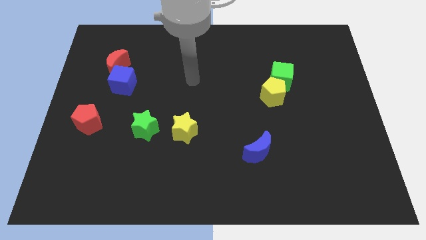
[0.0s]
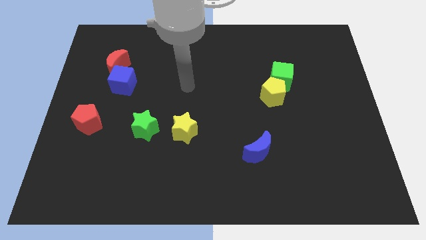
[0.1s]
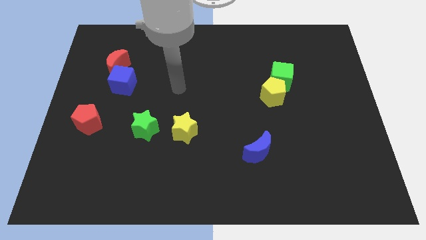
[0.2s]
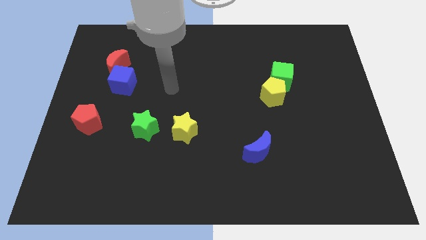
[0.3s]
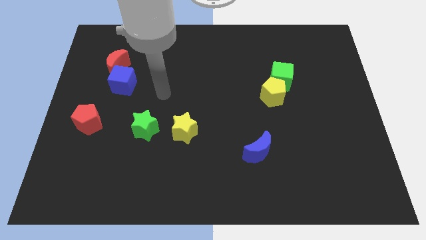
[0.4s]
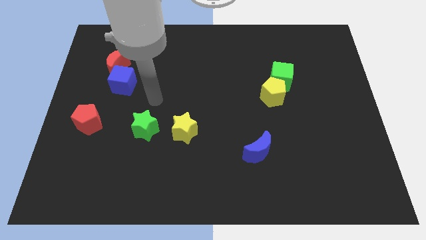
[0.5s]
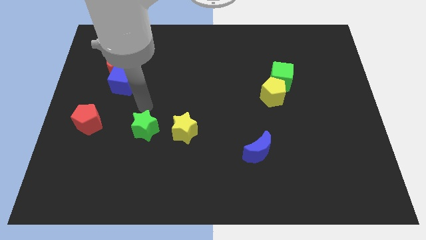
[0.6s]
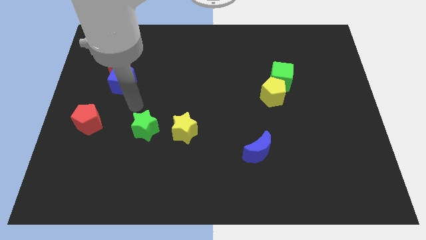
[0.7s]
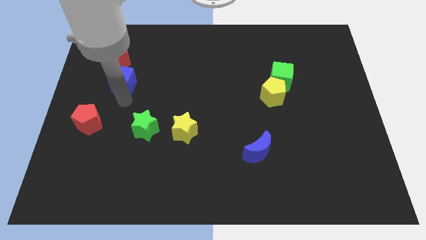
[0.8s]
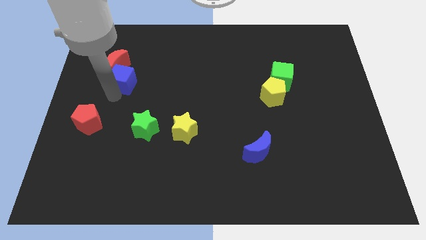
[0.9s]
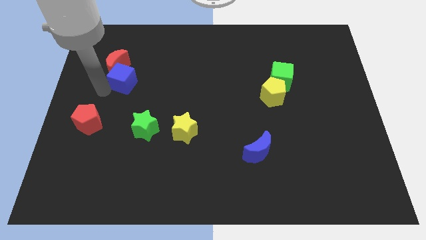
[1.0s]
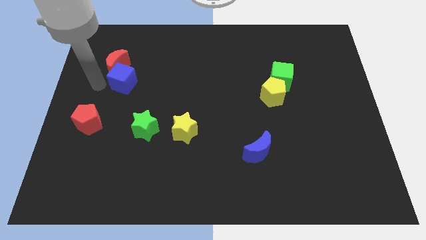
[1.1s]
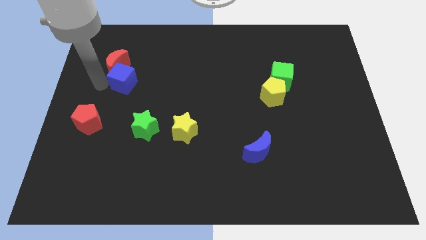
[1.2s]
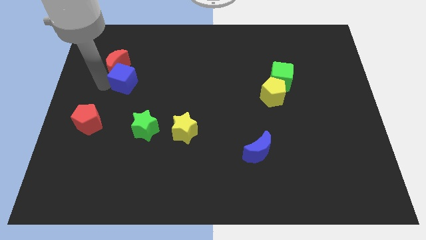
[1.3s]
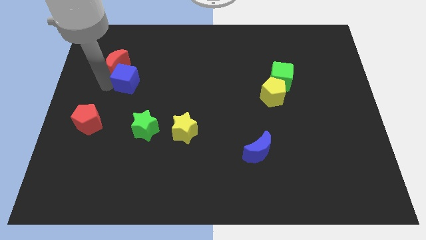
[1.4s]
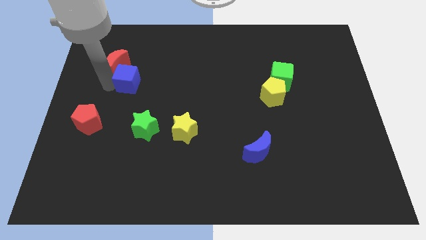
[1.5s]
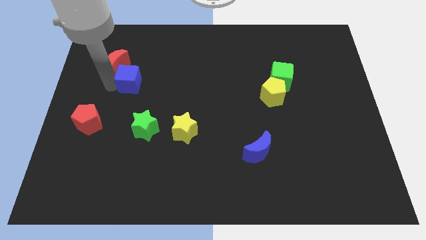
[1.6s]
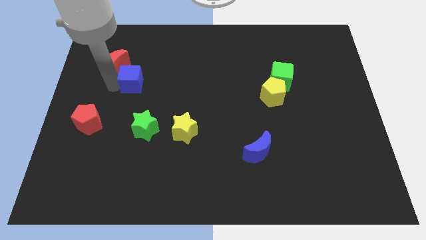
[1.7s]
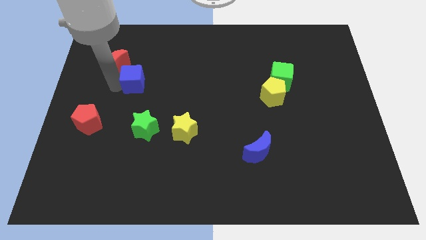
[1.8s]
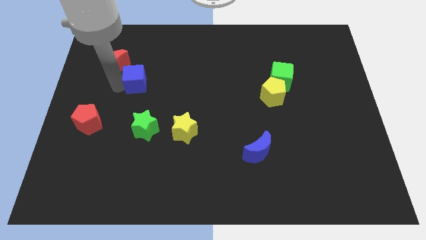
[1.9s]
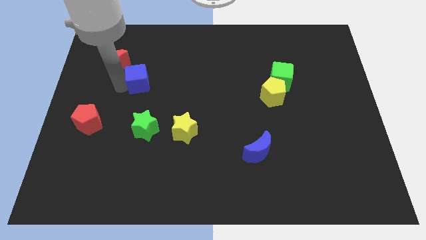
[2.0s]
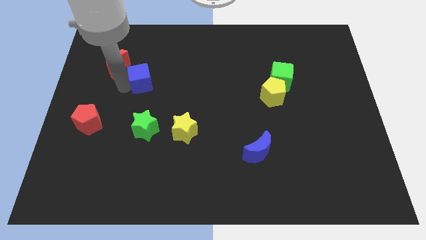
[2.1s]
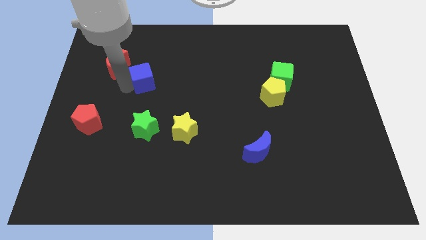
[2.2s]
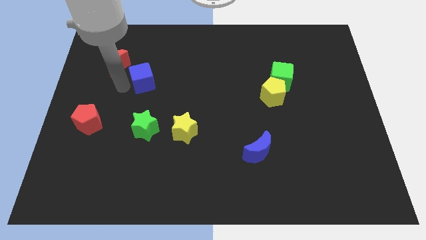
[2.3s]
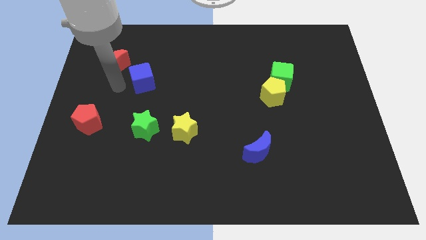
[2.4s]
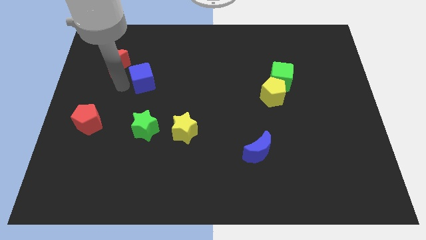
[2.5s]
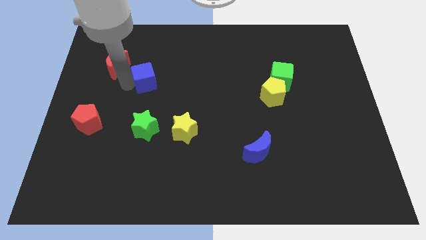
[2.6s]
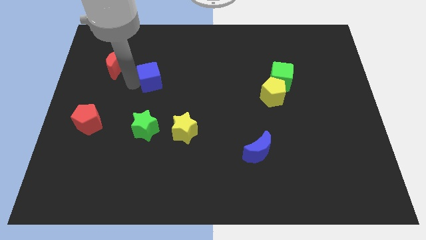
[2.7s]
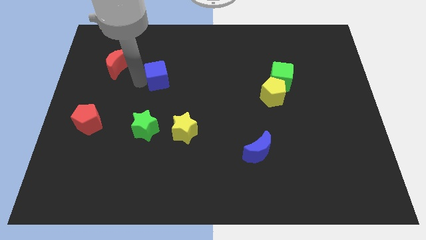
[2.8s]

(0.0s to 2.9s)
slightly slide the blue cube right

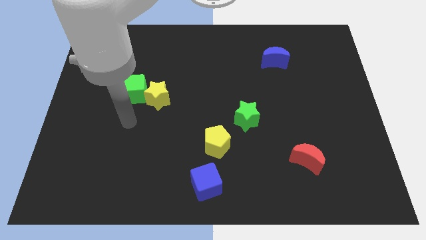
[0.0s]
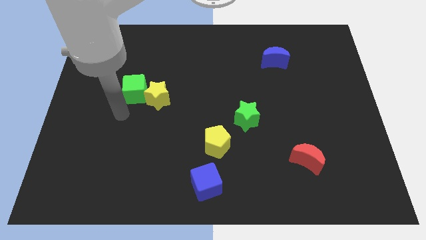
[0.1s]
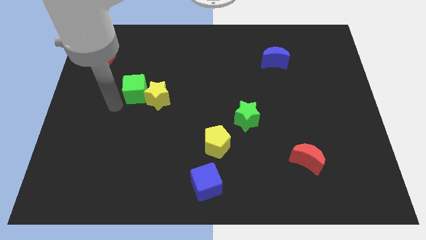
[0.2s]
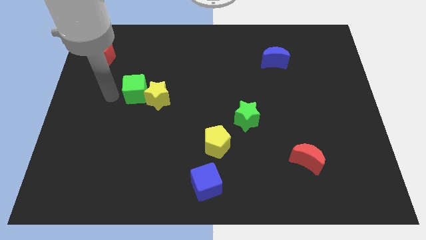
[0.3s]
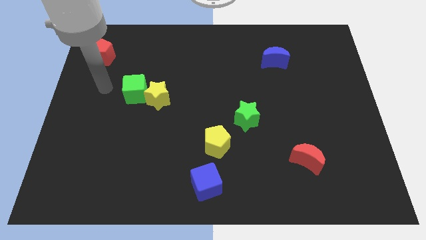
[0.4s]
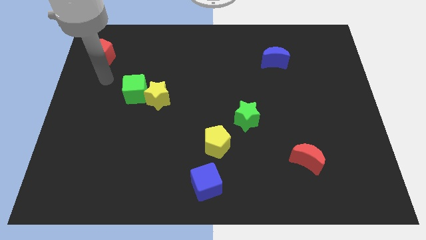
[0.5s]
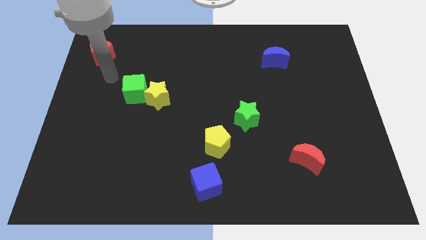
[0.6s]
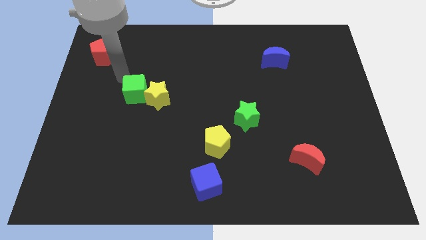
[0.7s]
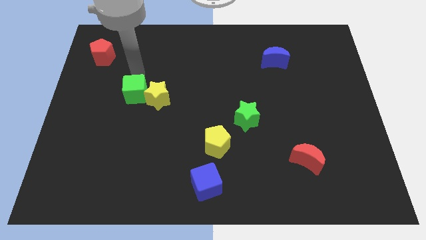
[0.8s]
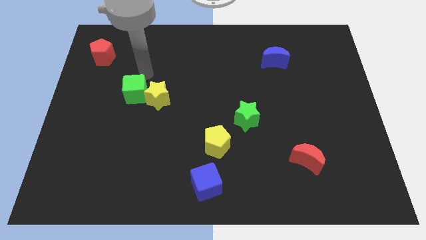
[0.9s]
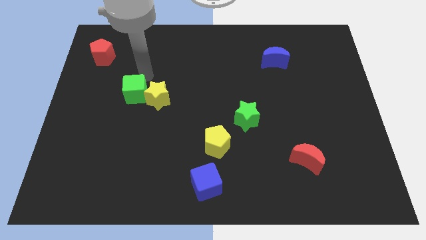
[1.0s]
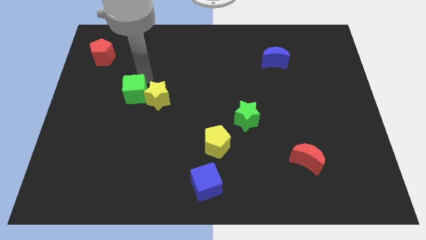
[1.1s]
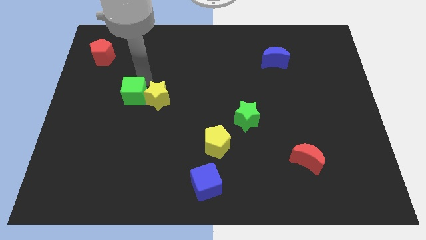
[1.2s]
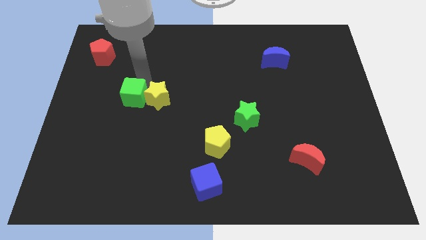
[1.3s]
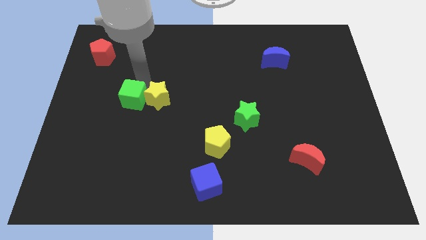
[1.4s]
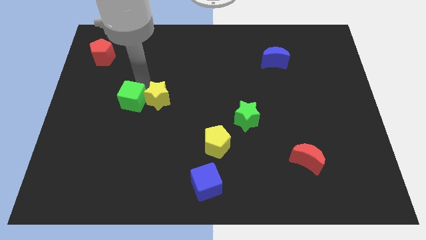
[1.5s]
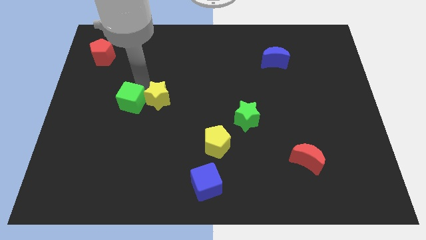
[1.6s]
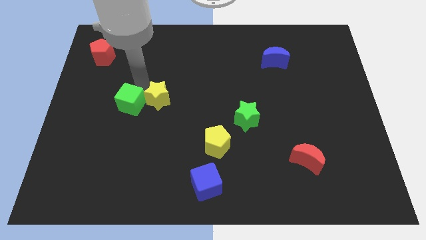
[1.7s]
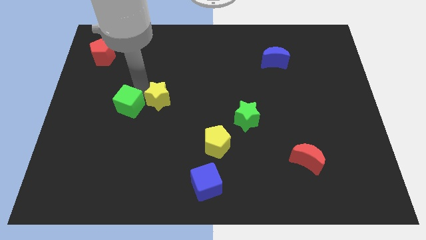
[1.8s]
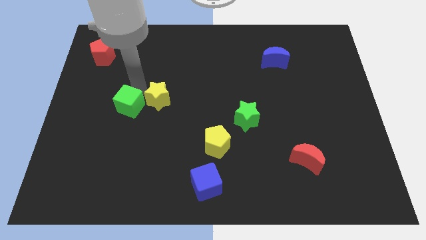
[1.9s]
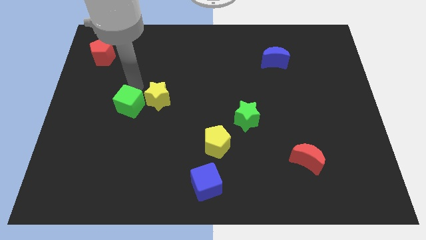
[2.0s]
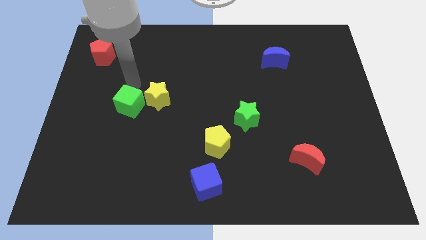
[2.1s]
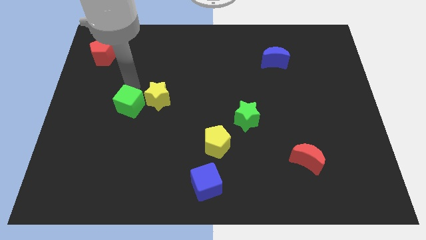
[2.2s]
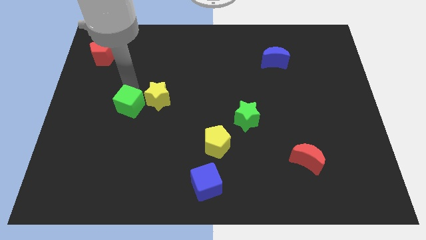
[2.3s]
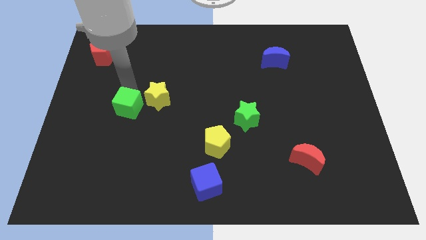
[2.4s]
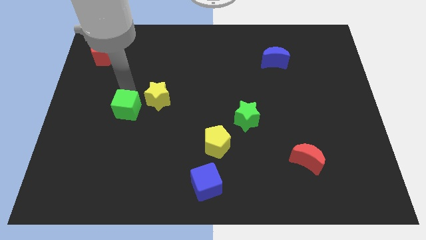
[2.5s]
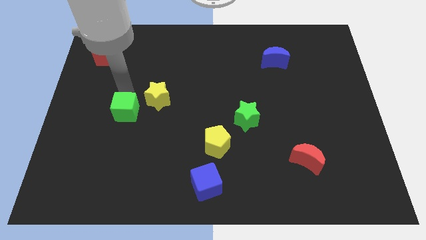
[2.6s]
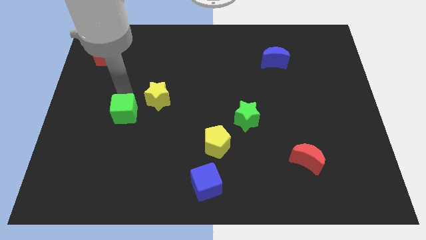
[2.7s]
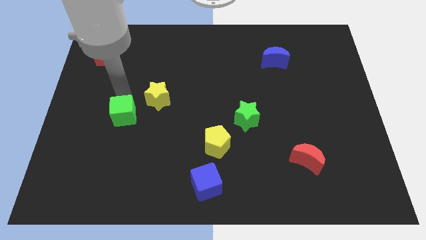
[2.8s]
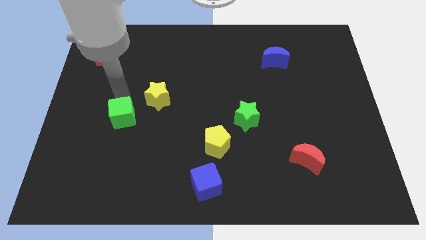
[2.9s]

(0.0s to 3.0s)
slide the green cube a little down

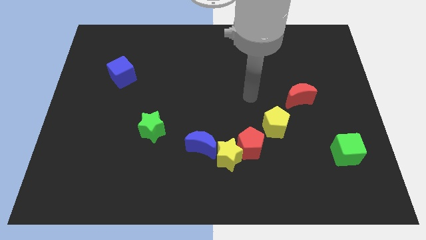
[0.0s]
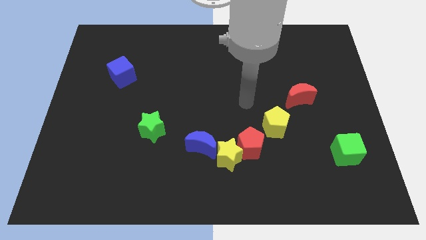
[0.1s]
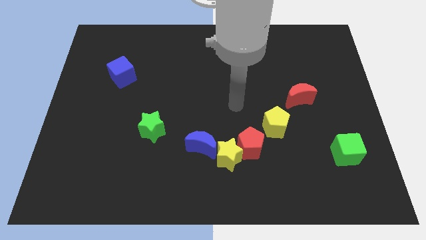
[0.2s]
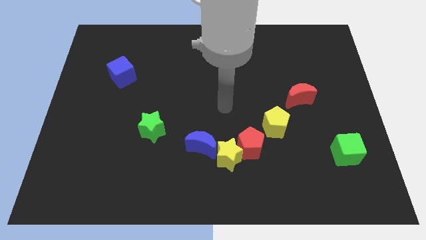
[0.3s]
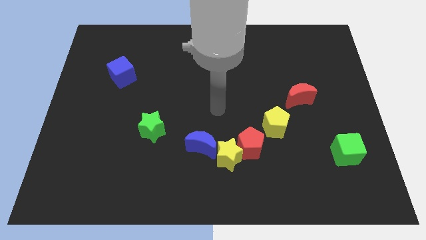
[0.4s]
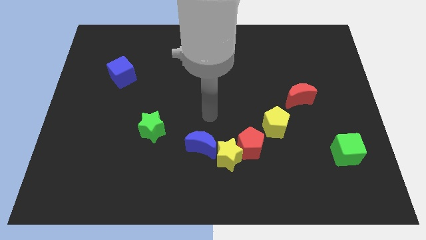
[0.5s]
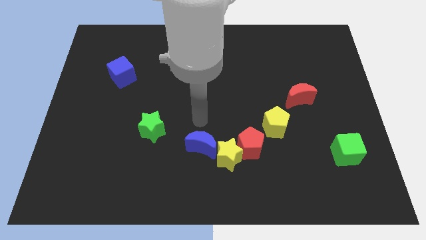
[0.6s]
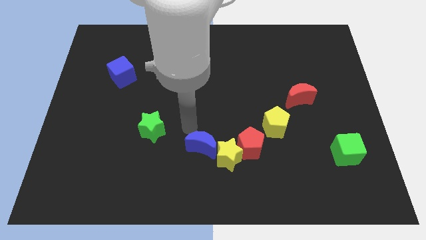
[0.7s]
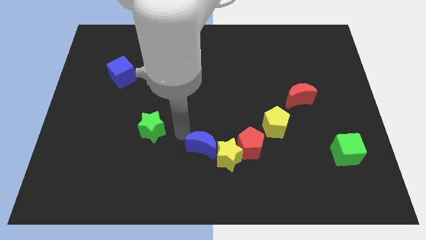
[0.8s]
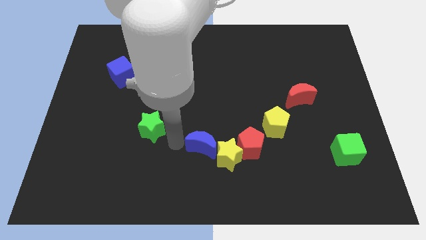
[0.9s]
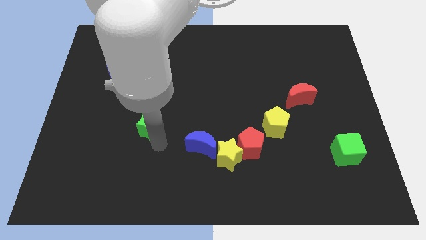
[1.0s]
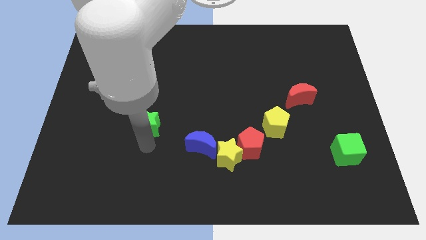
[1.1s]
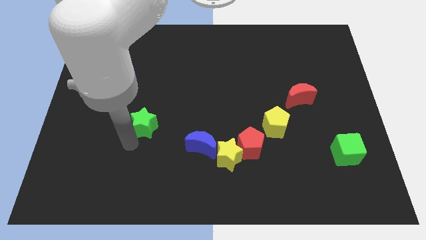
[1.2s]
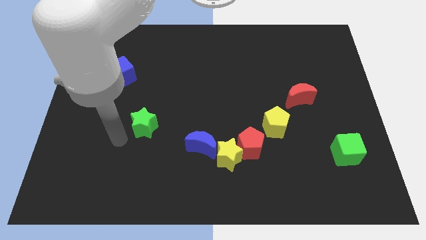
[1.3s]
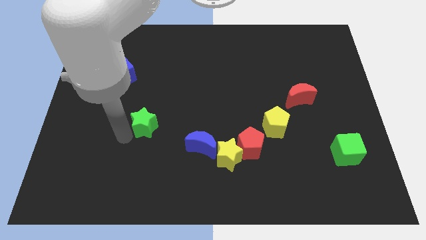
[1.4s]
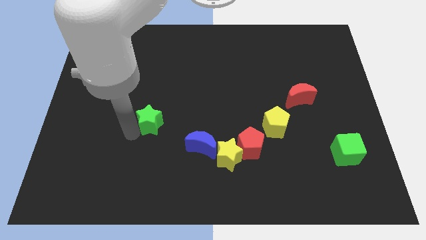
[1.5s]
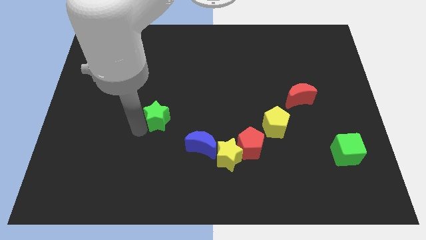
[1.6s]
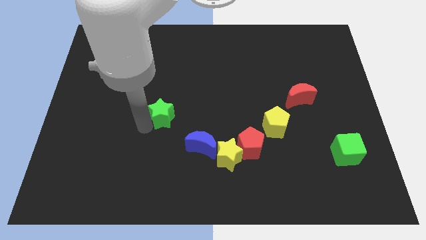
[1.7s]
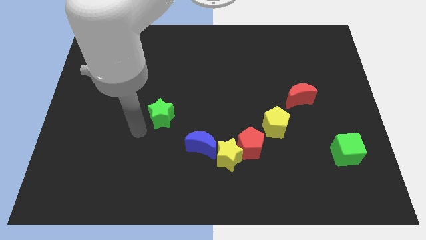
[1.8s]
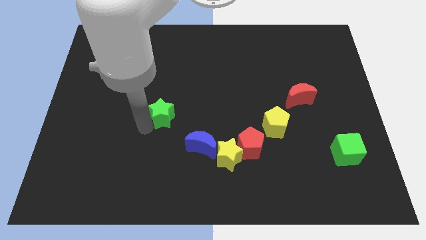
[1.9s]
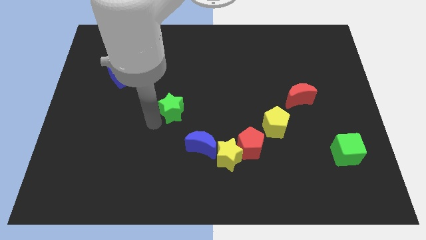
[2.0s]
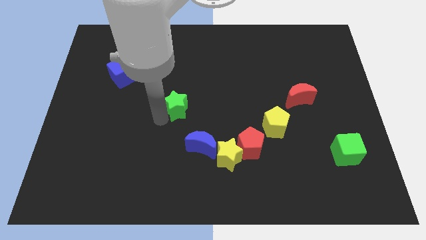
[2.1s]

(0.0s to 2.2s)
push the green star slightly upwards and to the right
